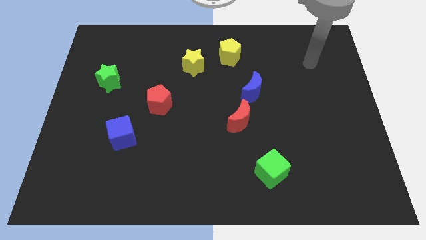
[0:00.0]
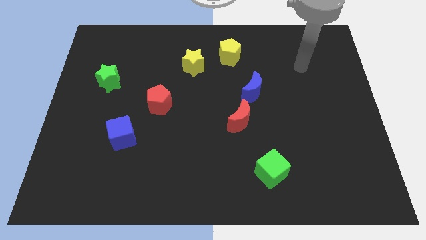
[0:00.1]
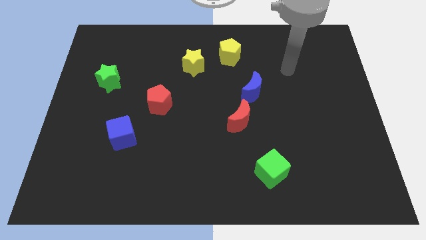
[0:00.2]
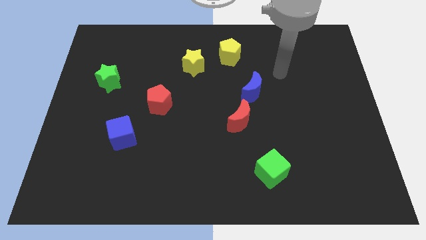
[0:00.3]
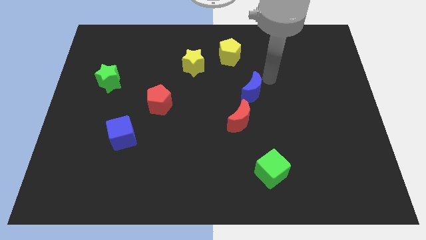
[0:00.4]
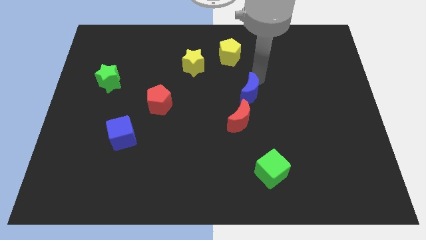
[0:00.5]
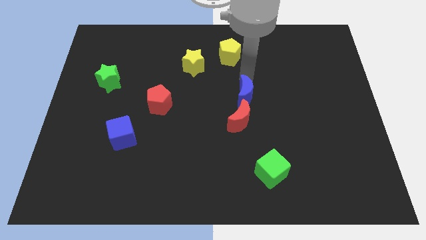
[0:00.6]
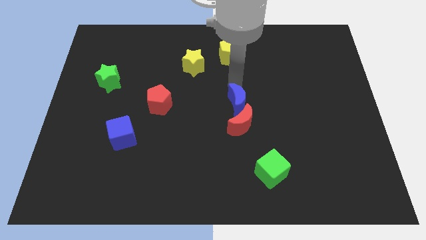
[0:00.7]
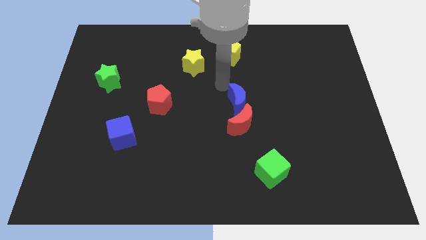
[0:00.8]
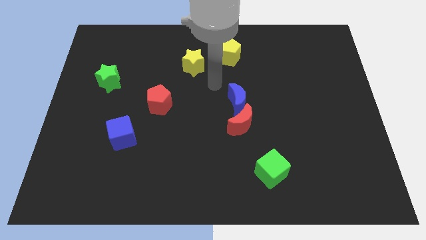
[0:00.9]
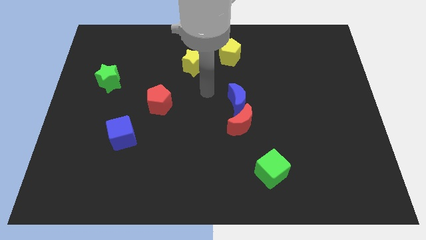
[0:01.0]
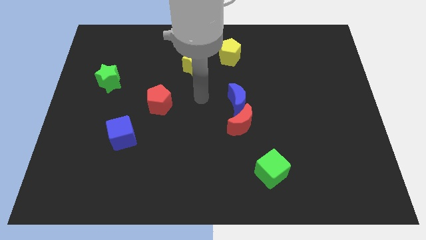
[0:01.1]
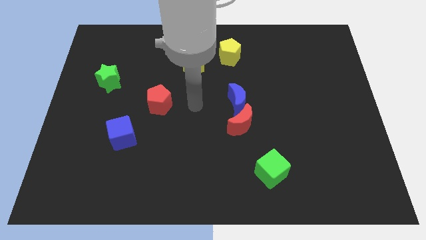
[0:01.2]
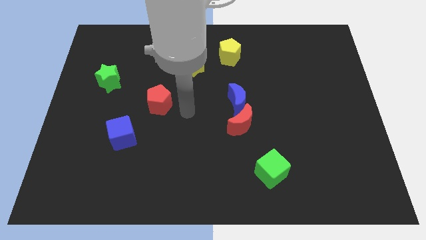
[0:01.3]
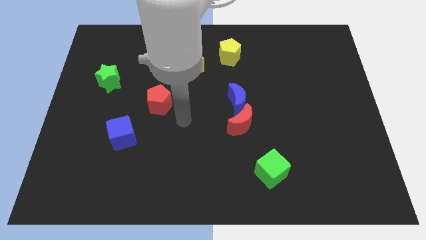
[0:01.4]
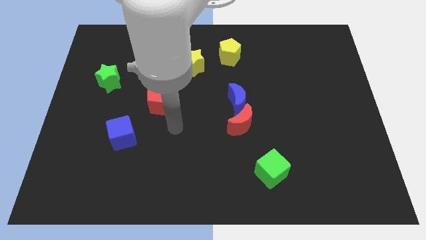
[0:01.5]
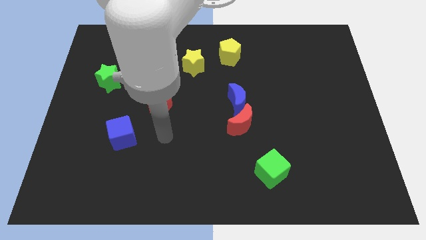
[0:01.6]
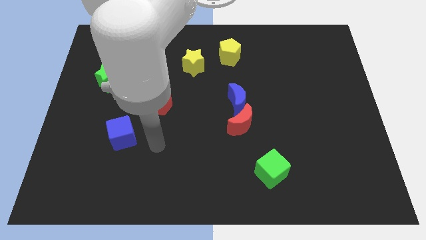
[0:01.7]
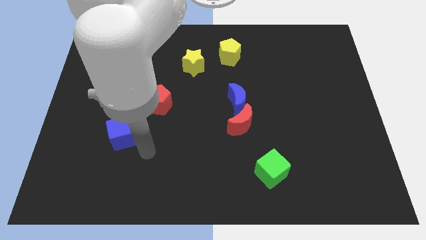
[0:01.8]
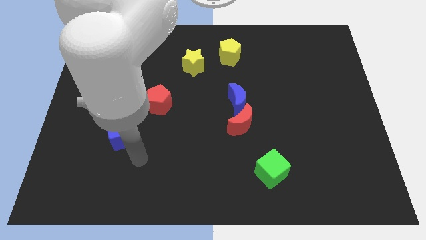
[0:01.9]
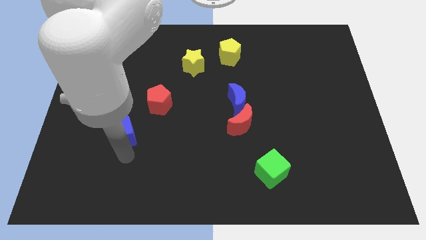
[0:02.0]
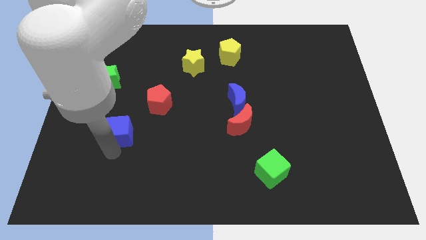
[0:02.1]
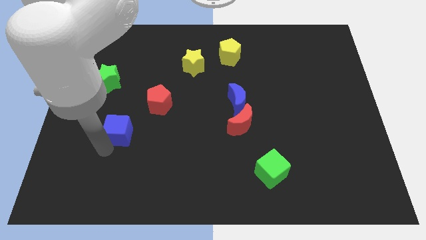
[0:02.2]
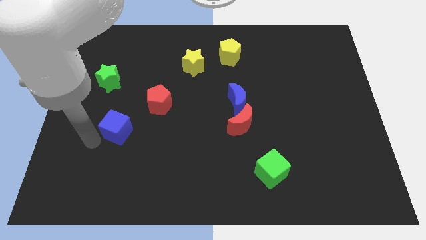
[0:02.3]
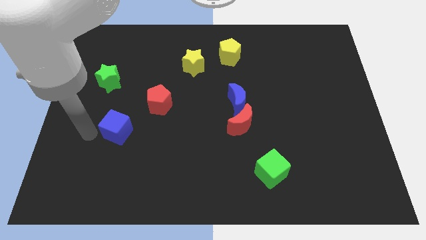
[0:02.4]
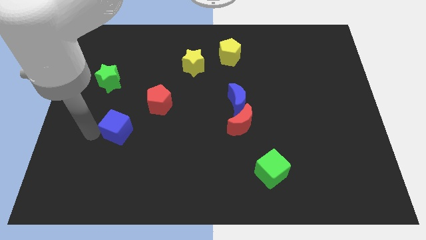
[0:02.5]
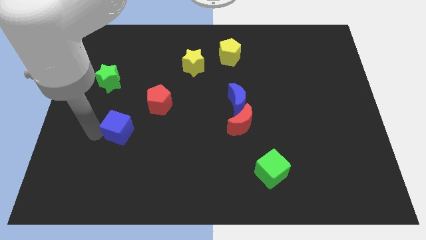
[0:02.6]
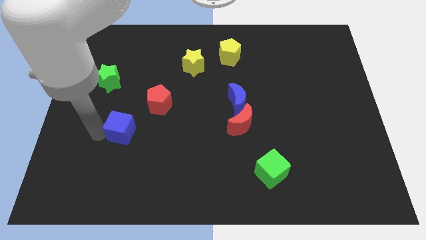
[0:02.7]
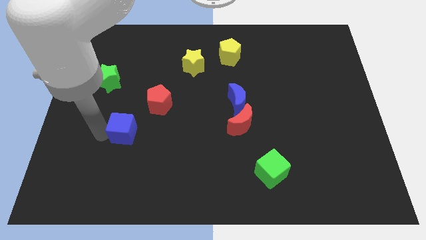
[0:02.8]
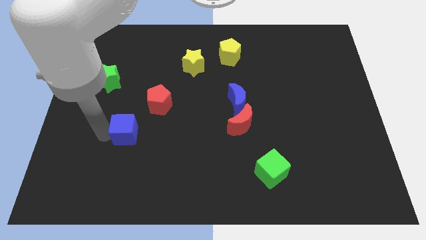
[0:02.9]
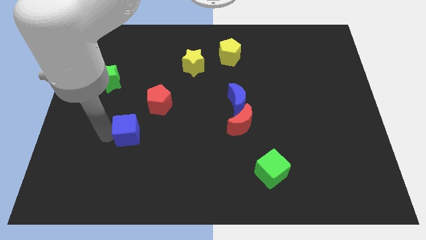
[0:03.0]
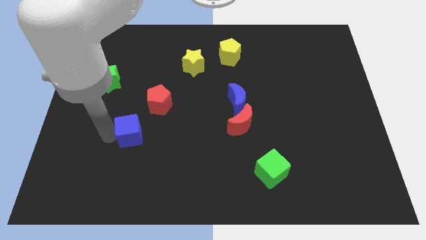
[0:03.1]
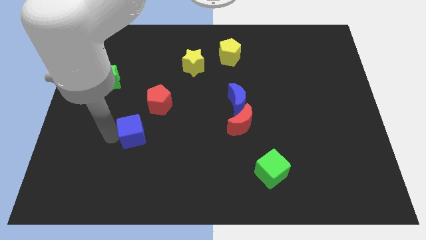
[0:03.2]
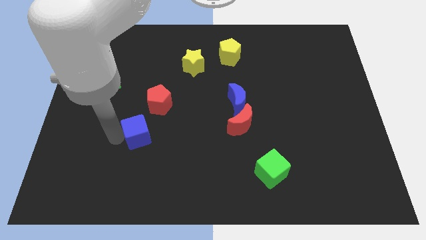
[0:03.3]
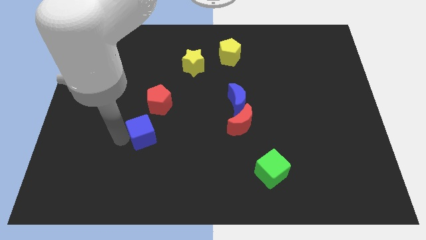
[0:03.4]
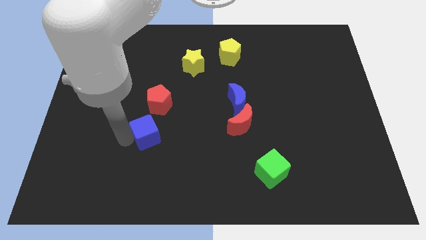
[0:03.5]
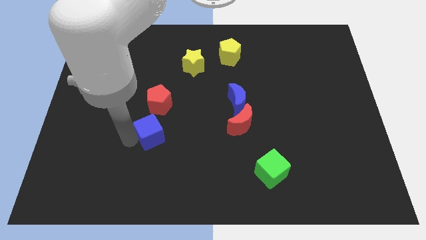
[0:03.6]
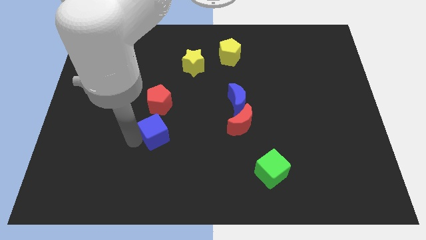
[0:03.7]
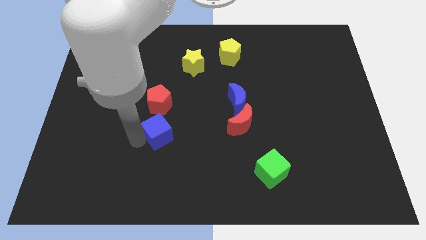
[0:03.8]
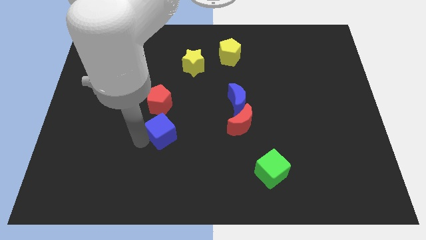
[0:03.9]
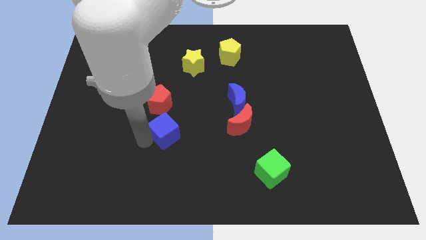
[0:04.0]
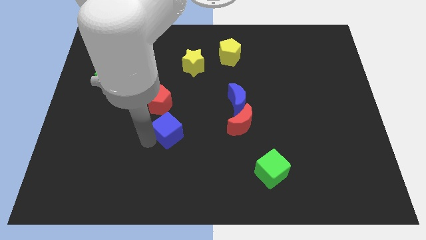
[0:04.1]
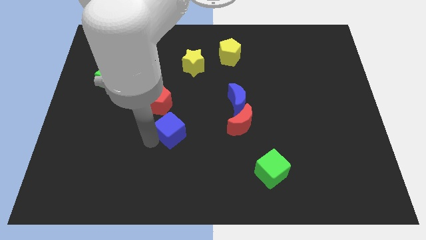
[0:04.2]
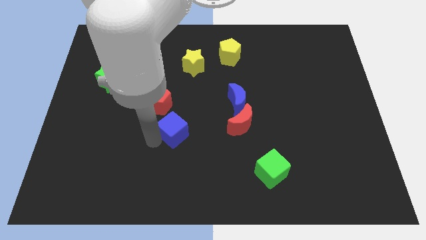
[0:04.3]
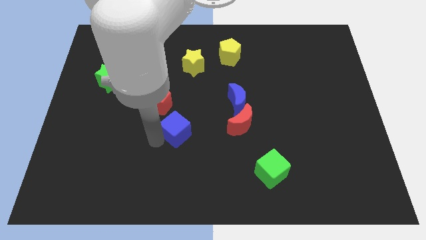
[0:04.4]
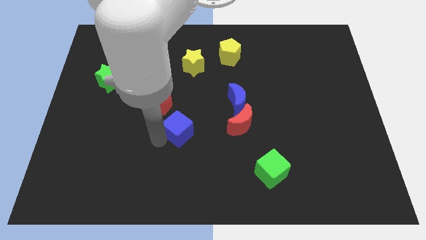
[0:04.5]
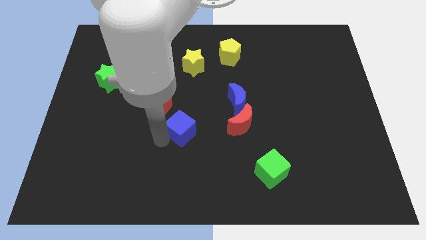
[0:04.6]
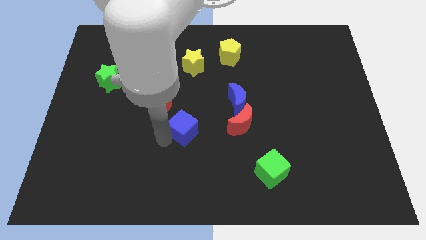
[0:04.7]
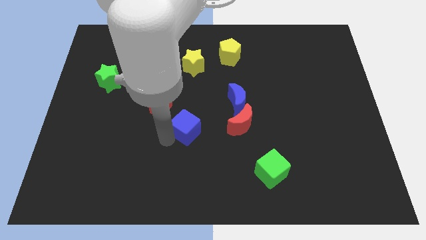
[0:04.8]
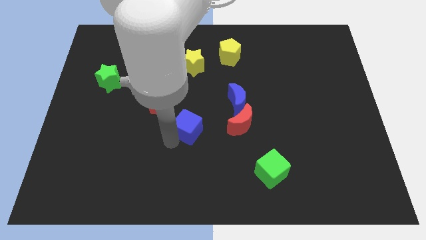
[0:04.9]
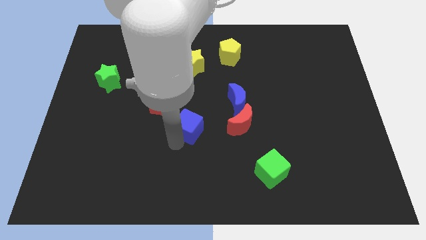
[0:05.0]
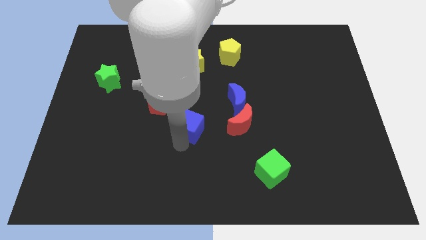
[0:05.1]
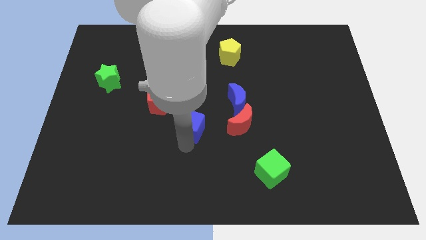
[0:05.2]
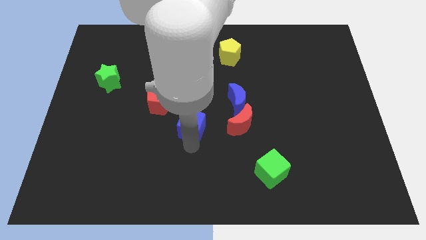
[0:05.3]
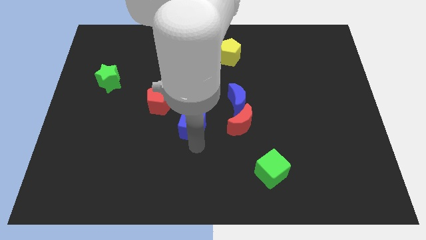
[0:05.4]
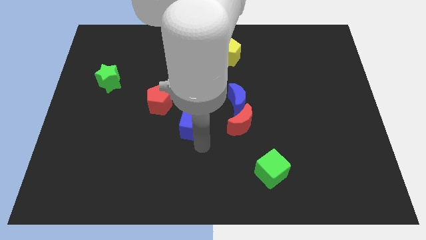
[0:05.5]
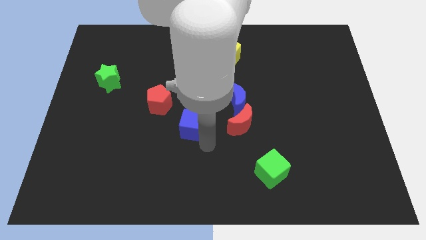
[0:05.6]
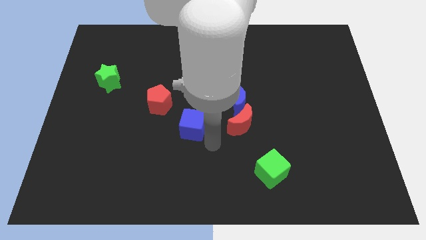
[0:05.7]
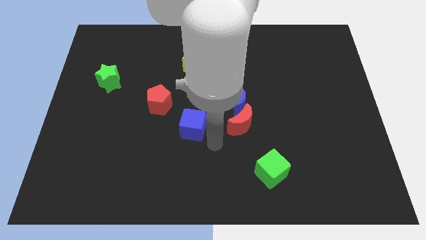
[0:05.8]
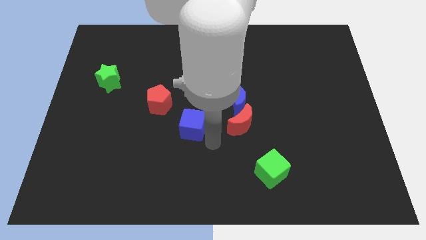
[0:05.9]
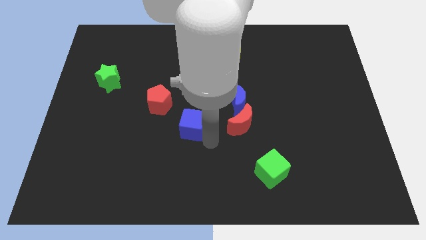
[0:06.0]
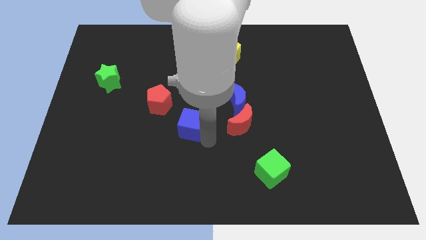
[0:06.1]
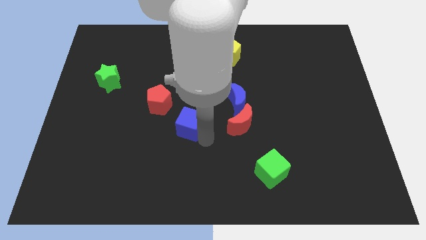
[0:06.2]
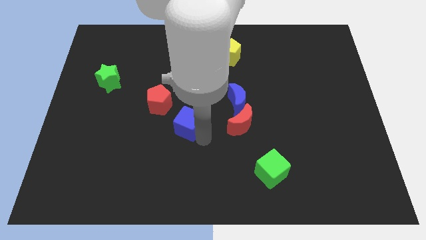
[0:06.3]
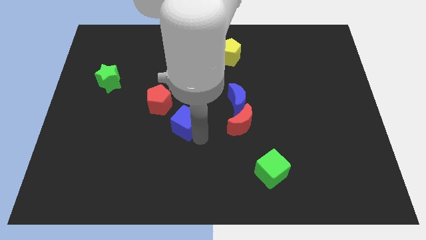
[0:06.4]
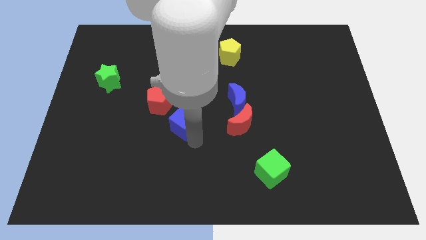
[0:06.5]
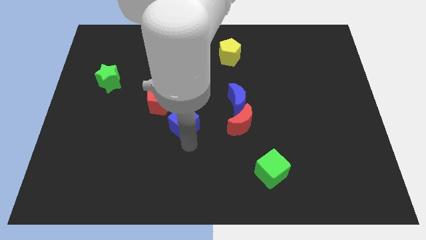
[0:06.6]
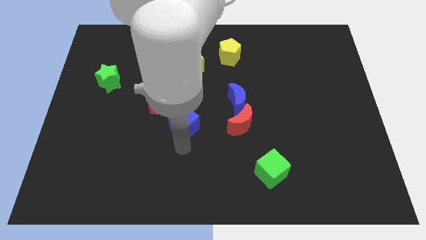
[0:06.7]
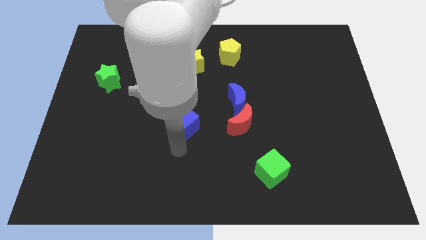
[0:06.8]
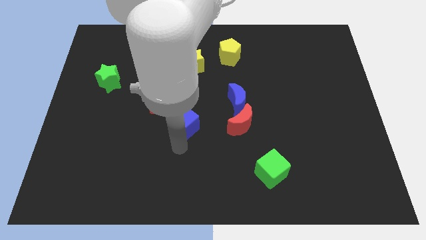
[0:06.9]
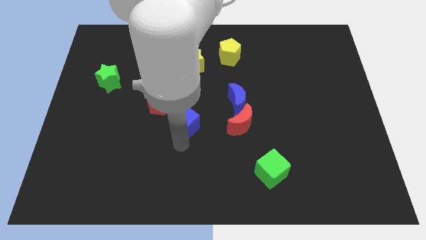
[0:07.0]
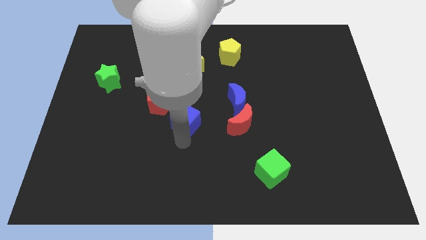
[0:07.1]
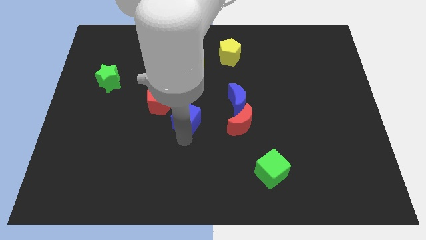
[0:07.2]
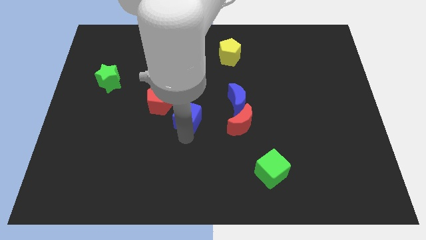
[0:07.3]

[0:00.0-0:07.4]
push the blue cube just left of the blue moon

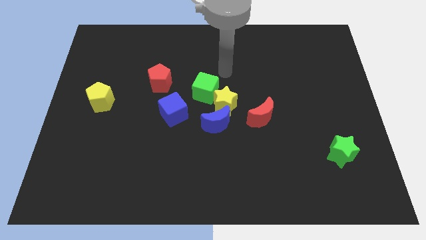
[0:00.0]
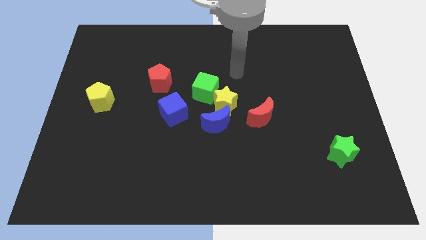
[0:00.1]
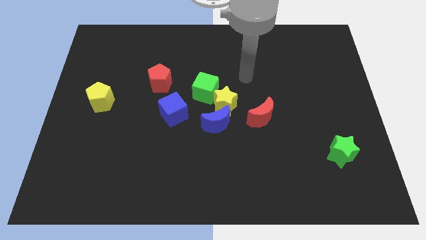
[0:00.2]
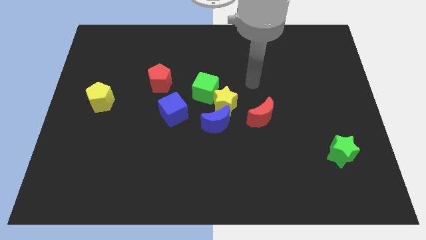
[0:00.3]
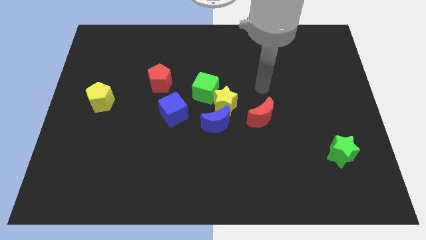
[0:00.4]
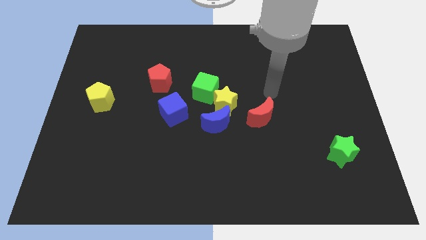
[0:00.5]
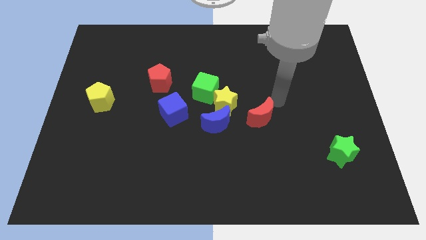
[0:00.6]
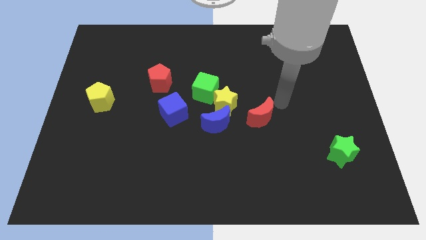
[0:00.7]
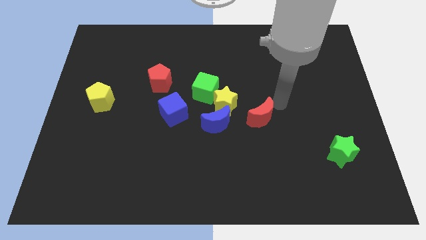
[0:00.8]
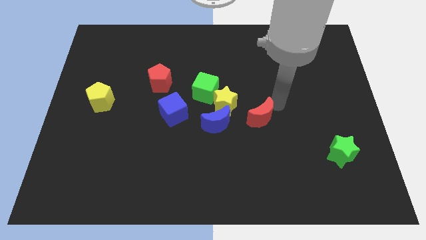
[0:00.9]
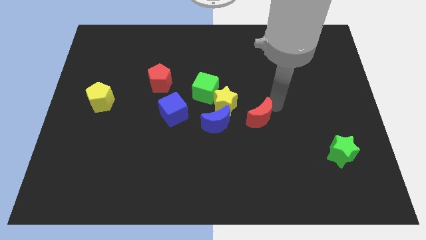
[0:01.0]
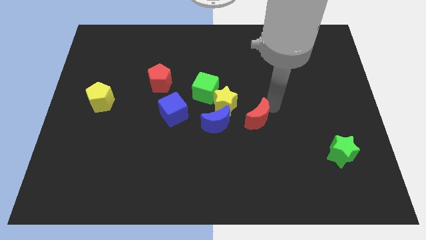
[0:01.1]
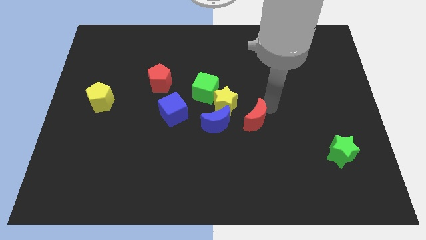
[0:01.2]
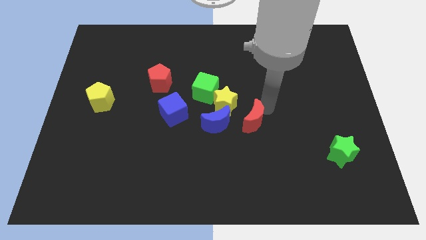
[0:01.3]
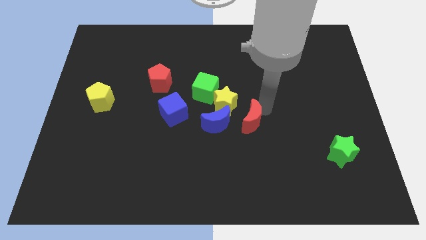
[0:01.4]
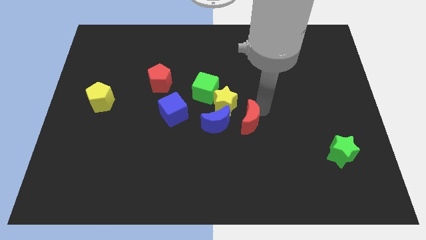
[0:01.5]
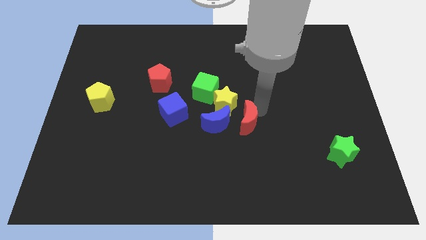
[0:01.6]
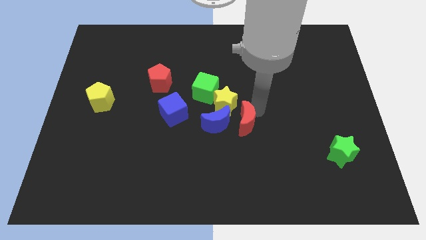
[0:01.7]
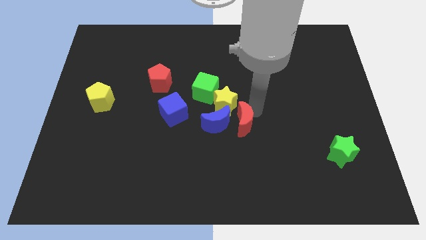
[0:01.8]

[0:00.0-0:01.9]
move the red moon to the bottom of the yellow star
